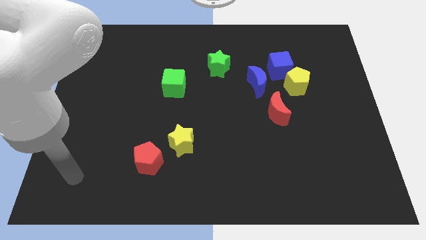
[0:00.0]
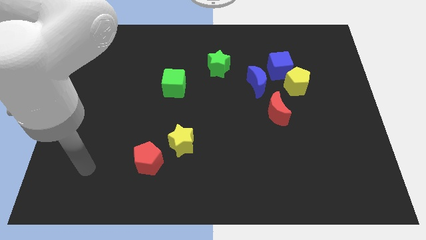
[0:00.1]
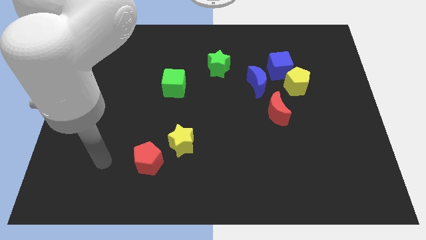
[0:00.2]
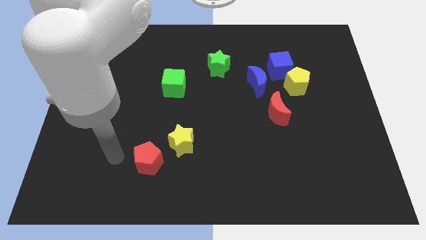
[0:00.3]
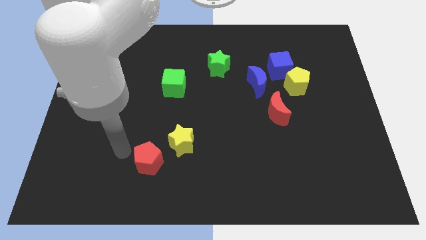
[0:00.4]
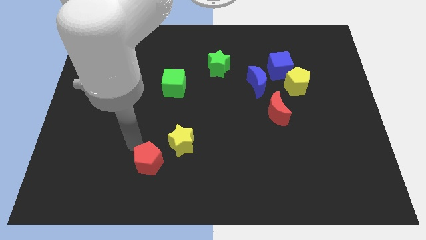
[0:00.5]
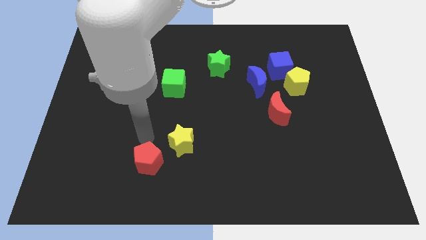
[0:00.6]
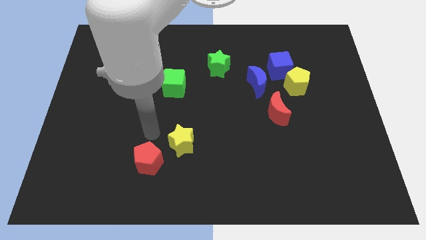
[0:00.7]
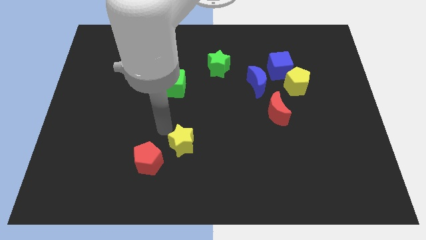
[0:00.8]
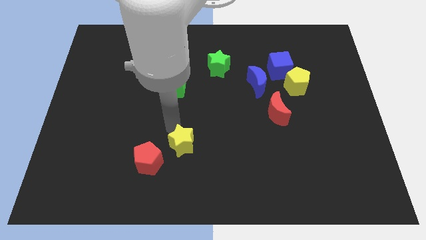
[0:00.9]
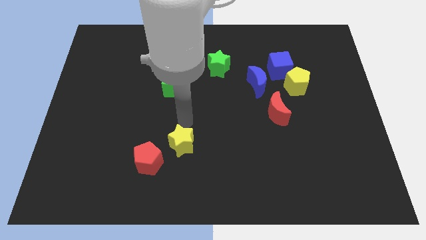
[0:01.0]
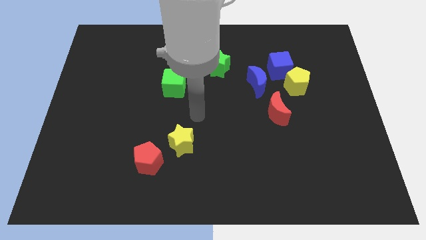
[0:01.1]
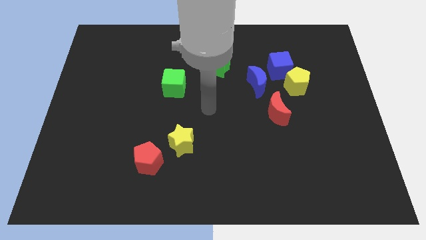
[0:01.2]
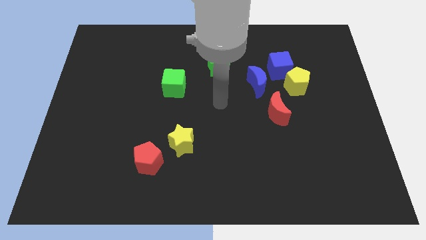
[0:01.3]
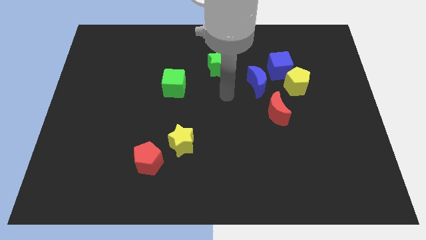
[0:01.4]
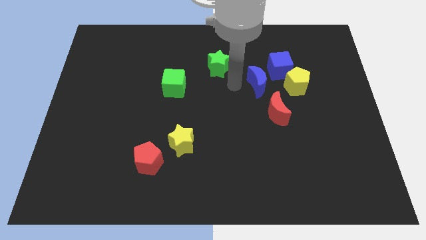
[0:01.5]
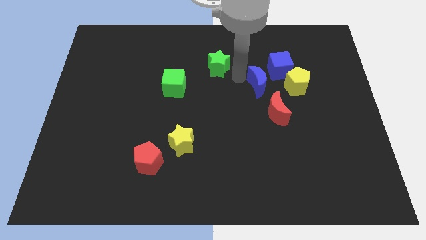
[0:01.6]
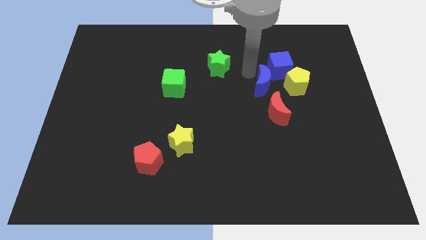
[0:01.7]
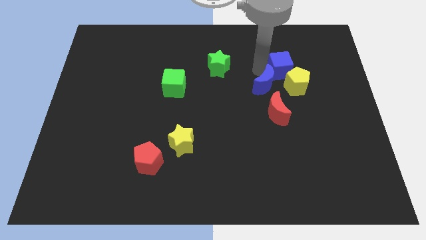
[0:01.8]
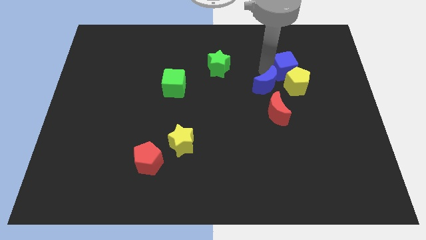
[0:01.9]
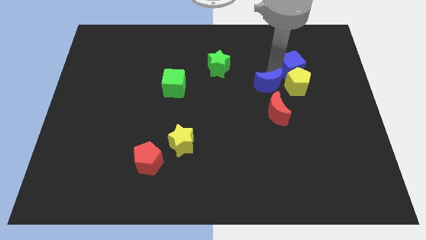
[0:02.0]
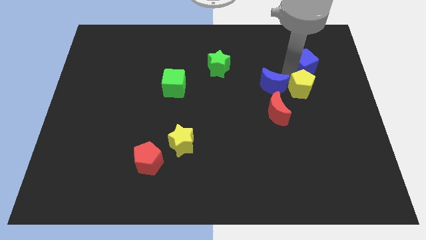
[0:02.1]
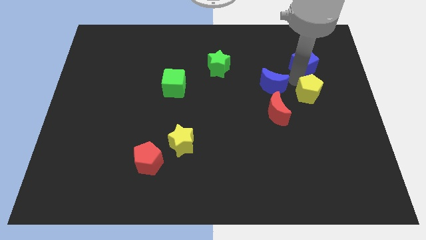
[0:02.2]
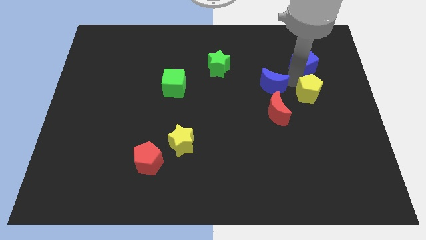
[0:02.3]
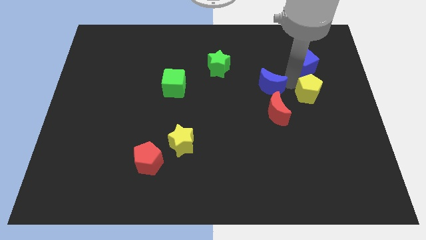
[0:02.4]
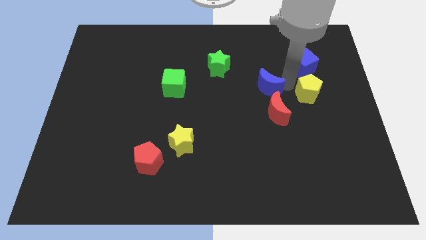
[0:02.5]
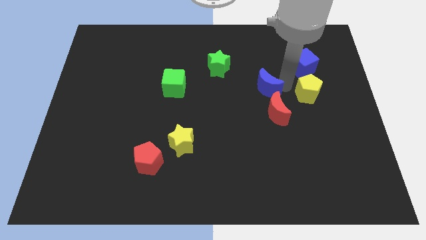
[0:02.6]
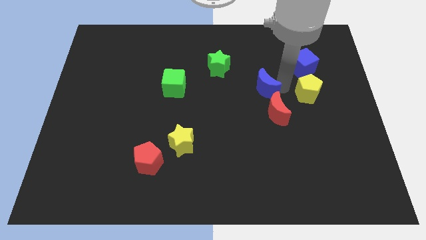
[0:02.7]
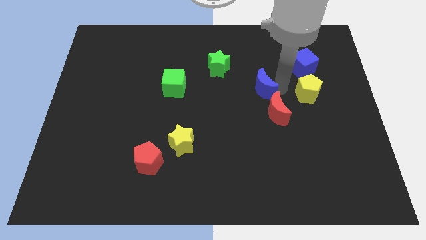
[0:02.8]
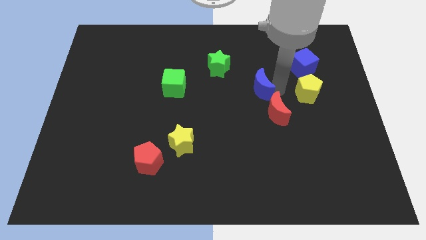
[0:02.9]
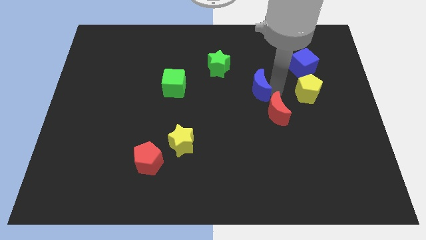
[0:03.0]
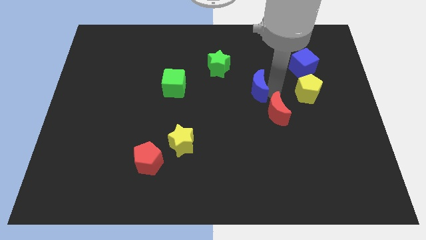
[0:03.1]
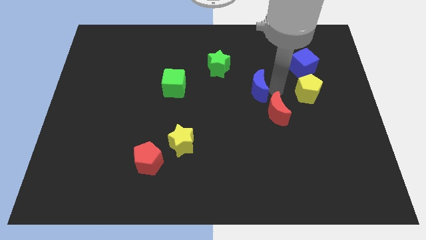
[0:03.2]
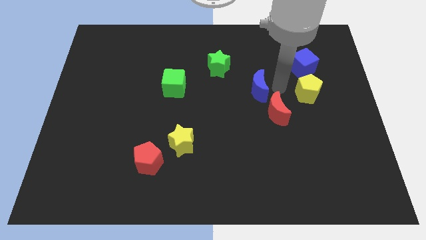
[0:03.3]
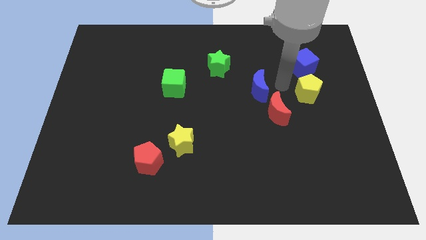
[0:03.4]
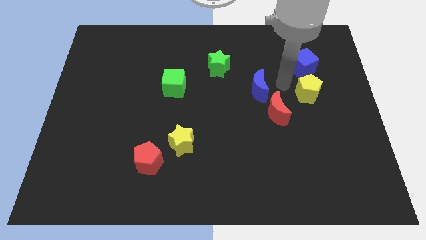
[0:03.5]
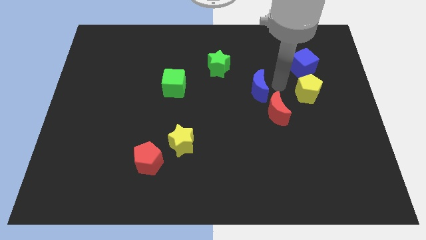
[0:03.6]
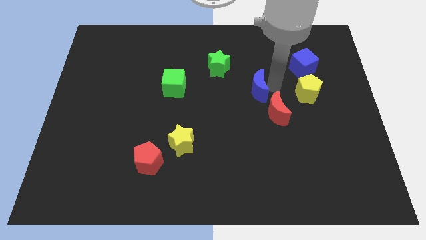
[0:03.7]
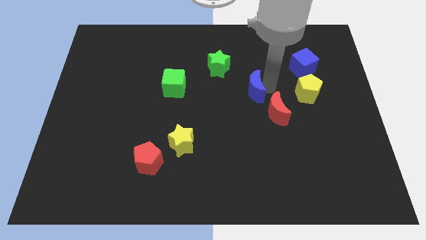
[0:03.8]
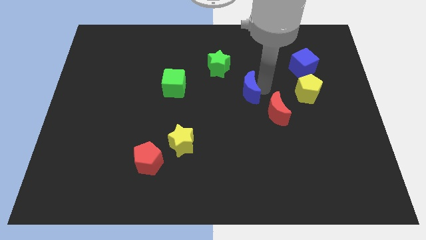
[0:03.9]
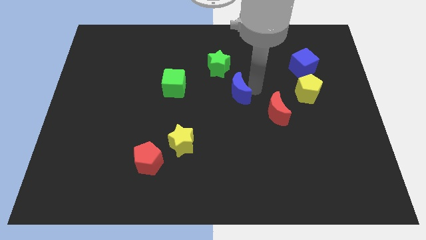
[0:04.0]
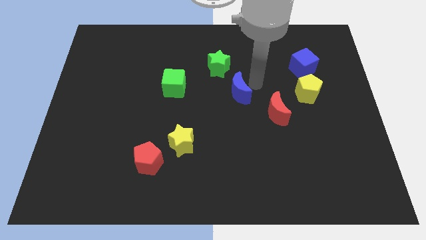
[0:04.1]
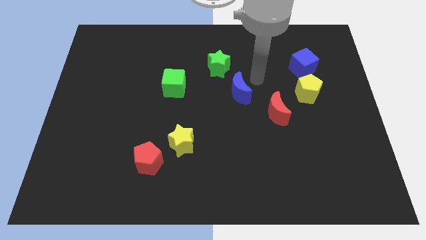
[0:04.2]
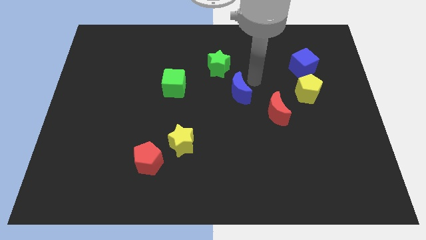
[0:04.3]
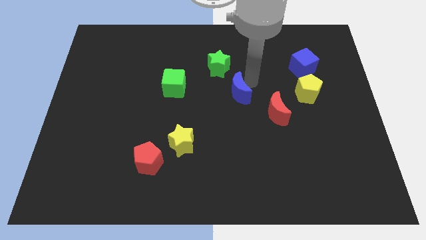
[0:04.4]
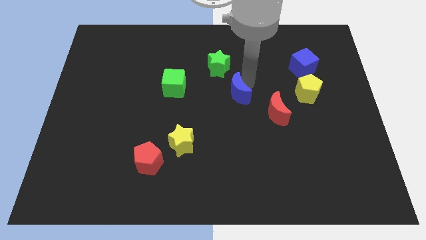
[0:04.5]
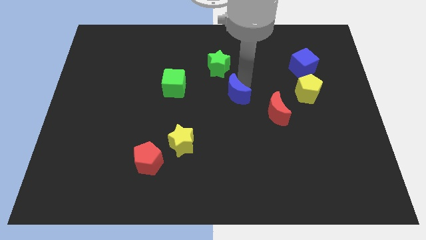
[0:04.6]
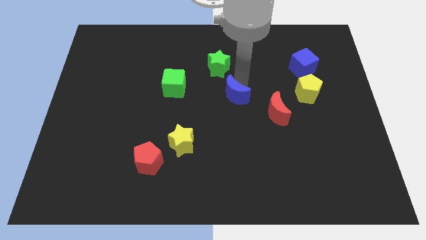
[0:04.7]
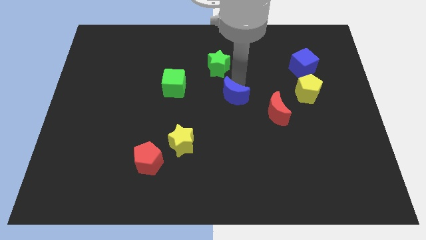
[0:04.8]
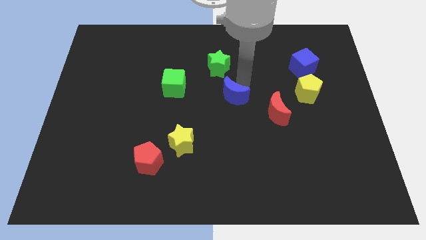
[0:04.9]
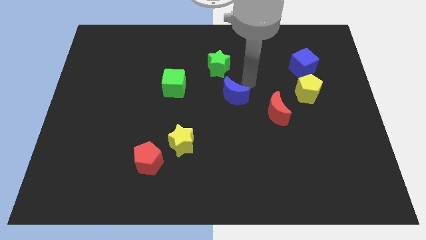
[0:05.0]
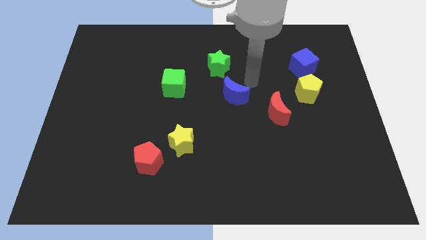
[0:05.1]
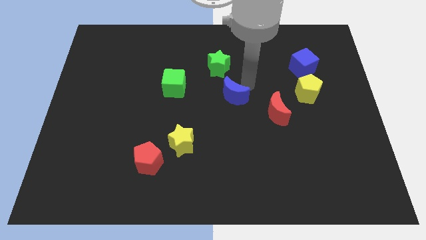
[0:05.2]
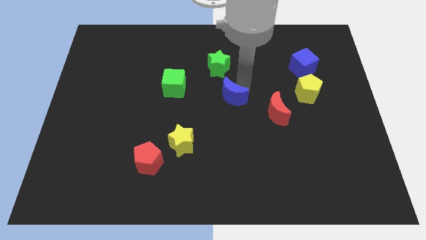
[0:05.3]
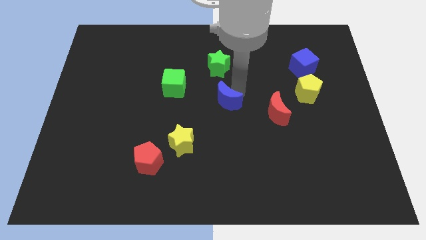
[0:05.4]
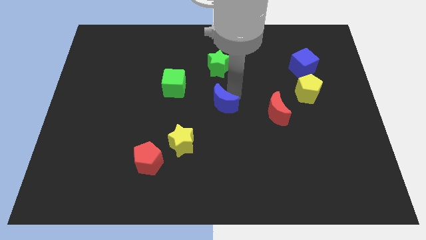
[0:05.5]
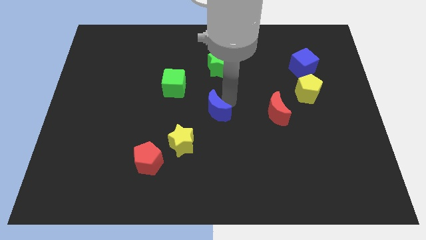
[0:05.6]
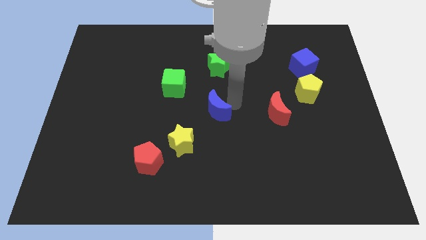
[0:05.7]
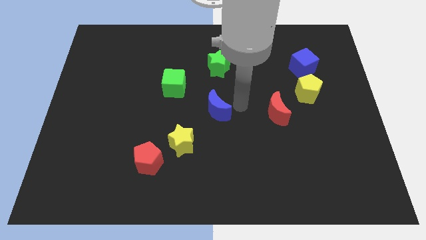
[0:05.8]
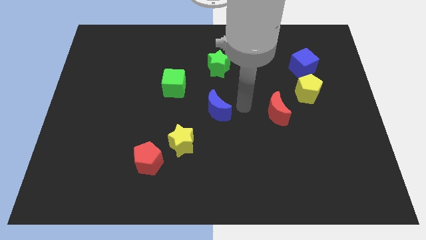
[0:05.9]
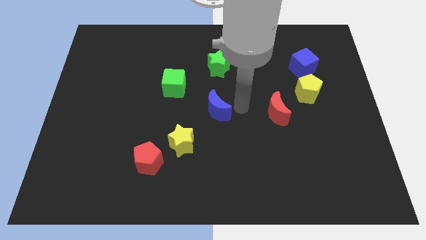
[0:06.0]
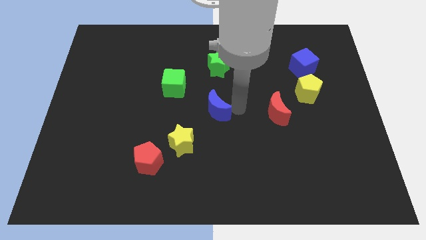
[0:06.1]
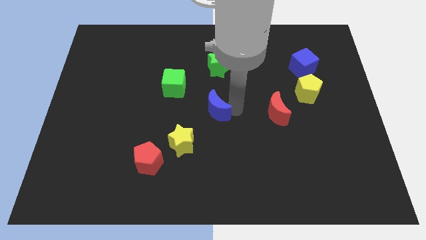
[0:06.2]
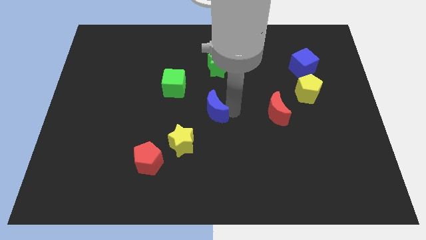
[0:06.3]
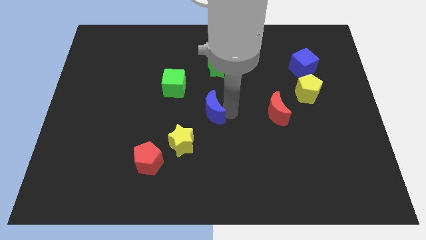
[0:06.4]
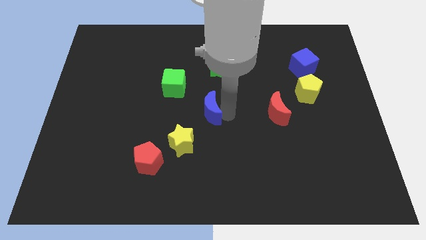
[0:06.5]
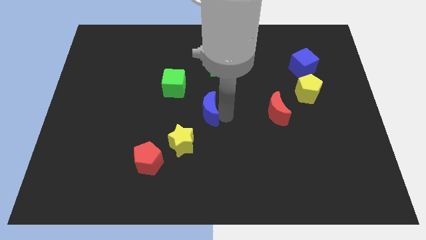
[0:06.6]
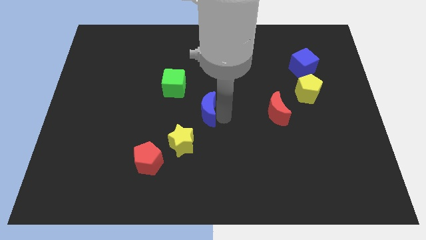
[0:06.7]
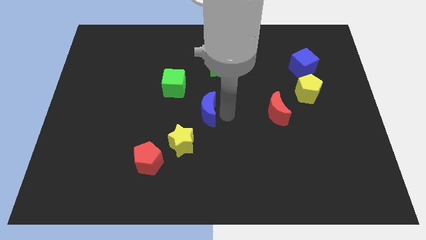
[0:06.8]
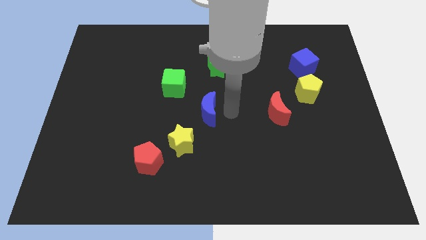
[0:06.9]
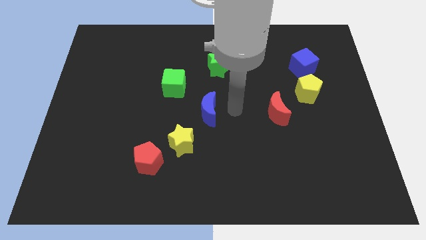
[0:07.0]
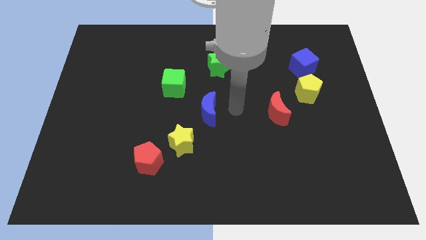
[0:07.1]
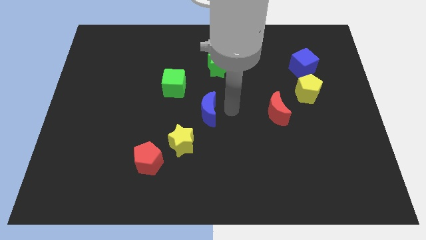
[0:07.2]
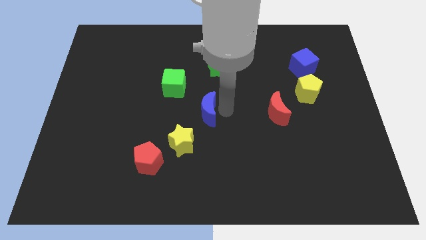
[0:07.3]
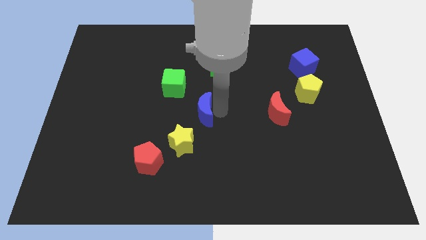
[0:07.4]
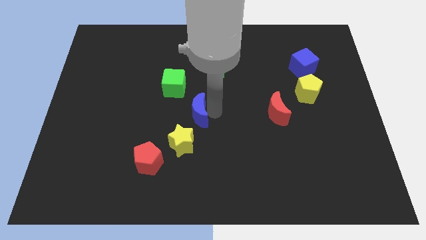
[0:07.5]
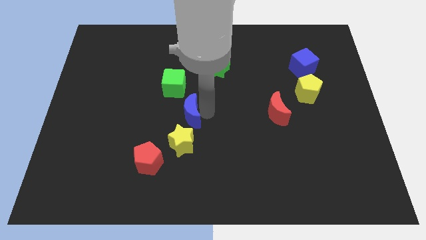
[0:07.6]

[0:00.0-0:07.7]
move the blue moon to the bottom of the green cube
